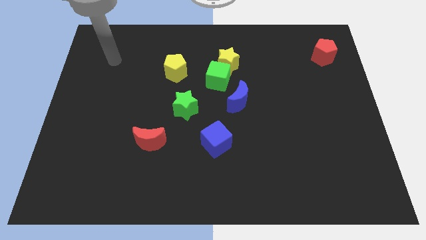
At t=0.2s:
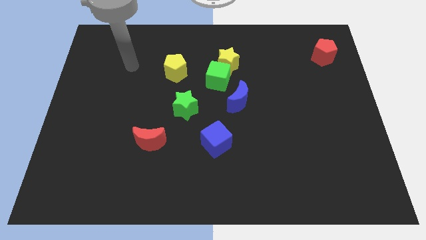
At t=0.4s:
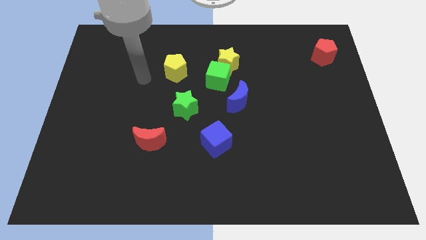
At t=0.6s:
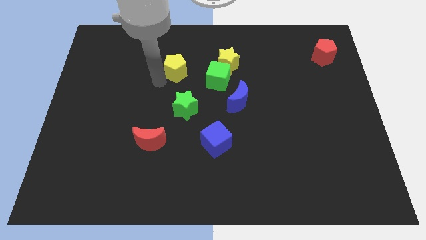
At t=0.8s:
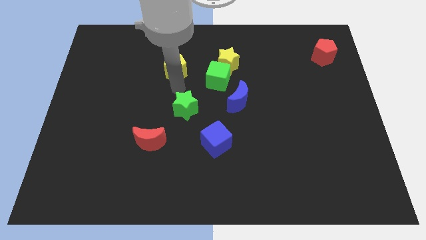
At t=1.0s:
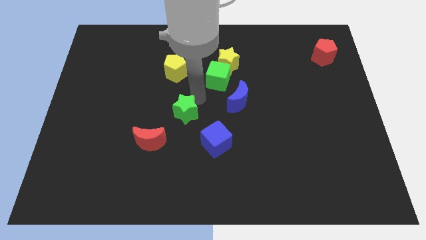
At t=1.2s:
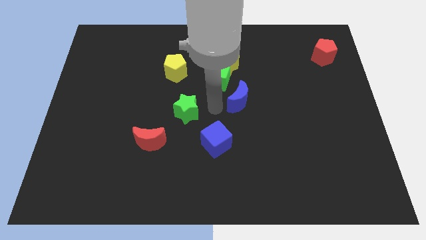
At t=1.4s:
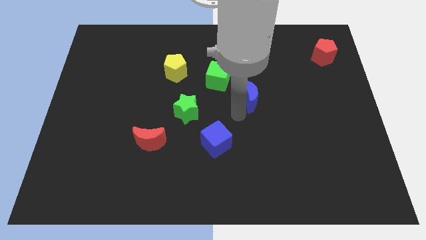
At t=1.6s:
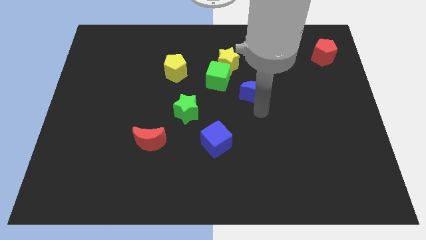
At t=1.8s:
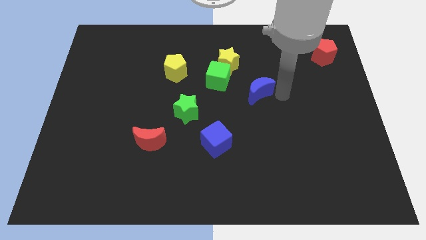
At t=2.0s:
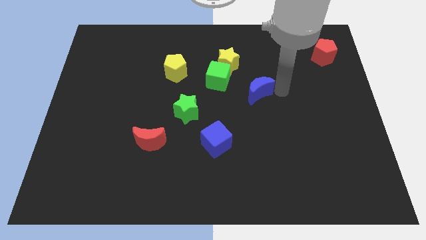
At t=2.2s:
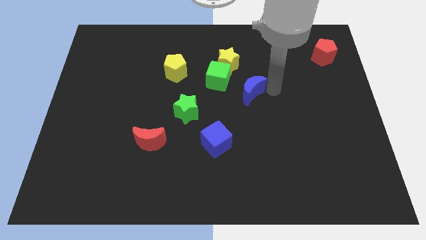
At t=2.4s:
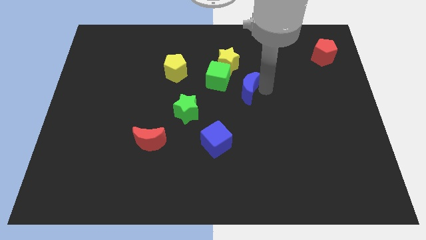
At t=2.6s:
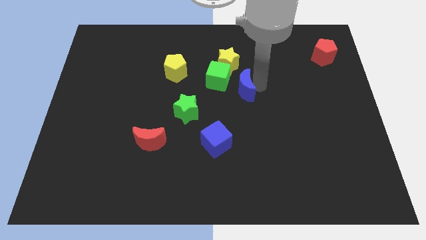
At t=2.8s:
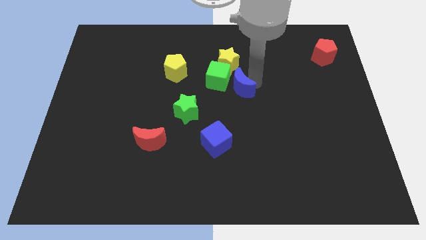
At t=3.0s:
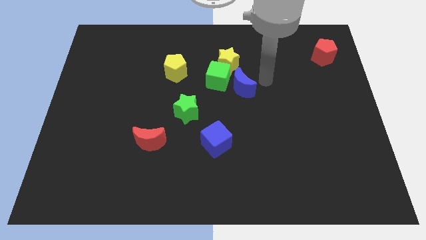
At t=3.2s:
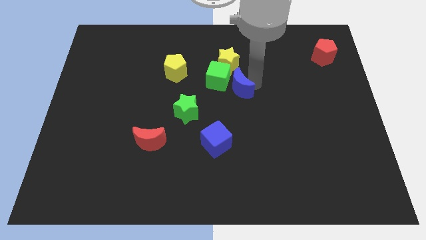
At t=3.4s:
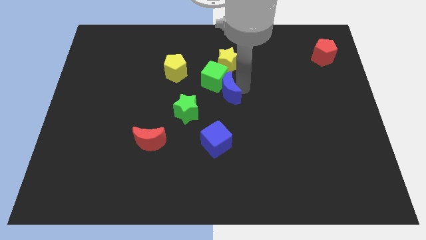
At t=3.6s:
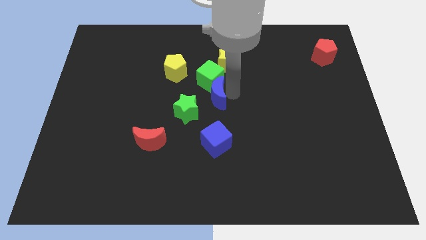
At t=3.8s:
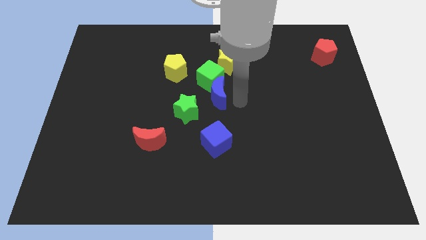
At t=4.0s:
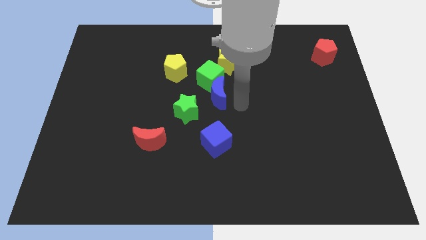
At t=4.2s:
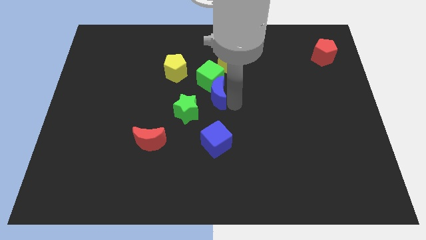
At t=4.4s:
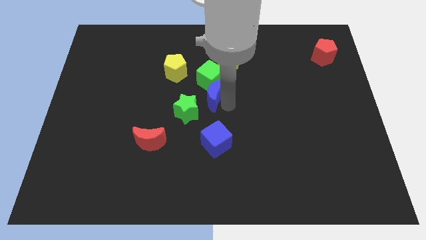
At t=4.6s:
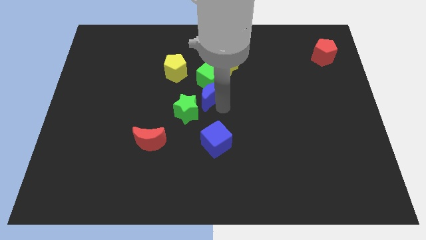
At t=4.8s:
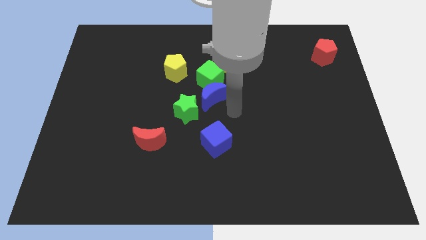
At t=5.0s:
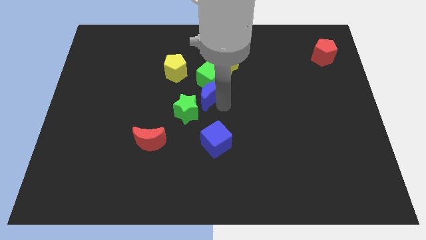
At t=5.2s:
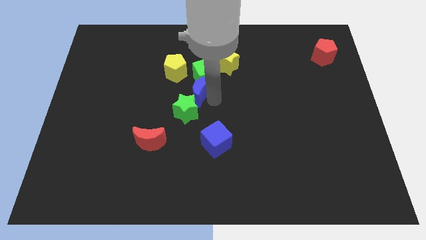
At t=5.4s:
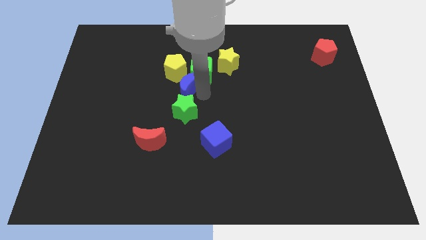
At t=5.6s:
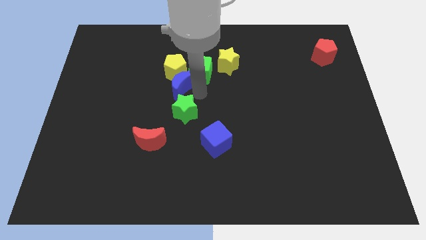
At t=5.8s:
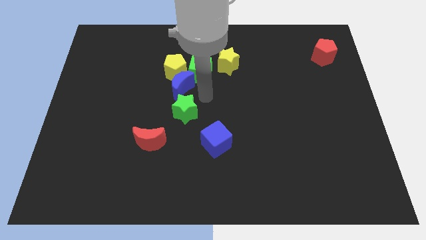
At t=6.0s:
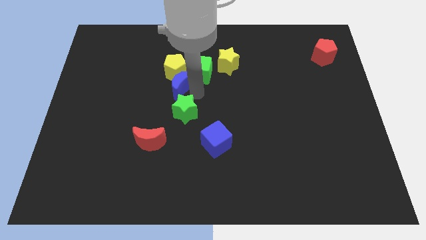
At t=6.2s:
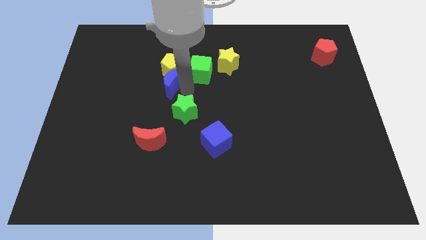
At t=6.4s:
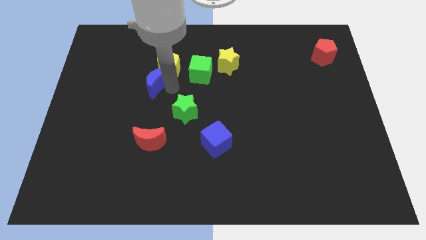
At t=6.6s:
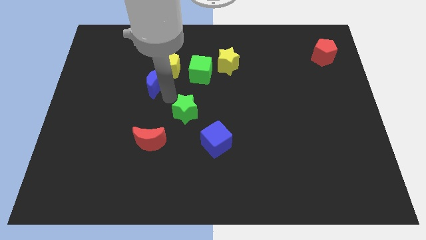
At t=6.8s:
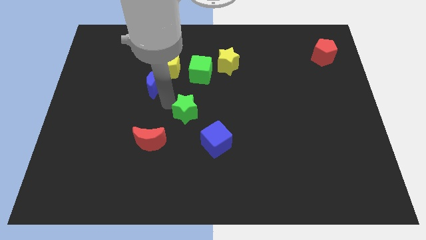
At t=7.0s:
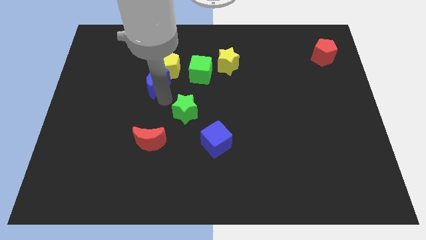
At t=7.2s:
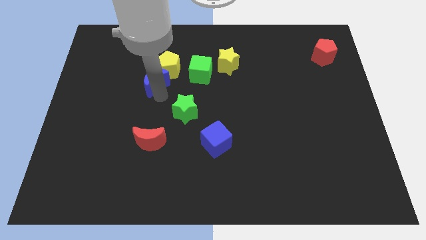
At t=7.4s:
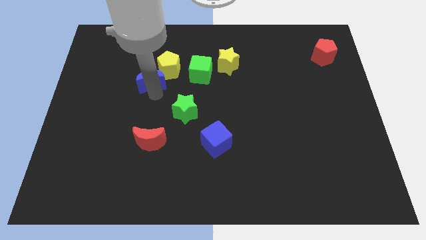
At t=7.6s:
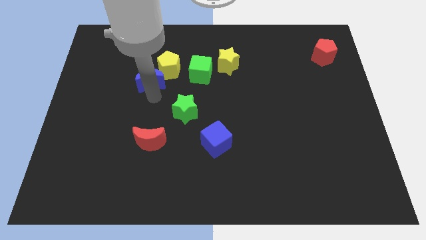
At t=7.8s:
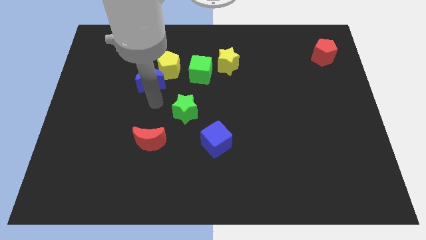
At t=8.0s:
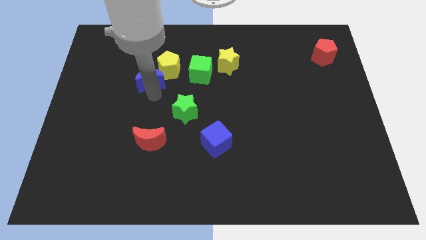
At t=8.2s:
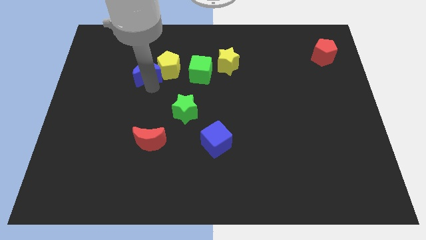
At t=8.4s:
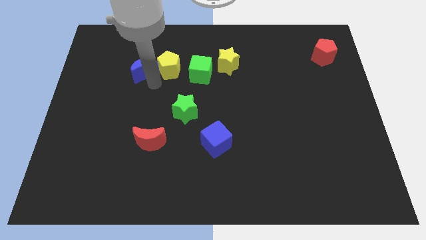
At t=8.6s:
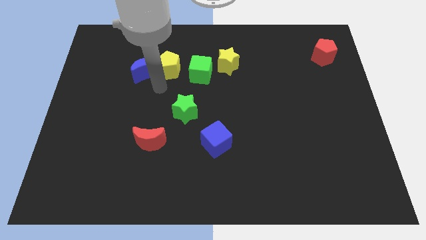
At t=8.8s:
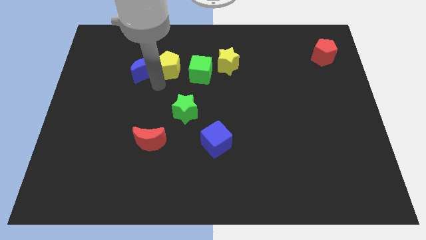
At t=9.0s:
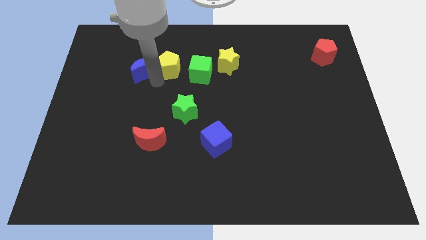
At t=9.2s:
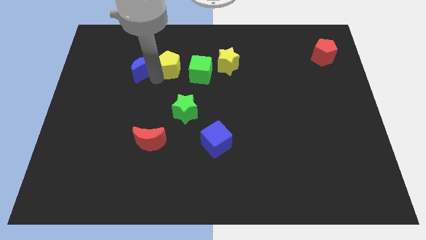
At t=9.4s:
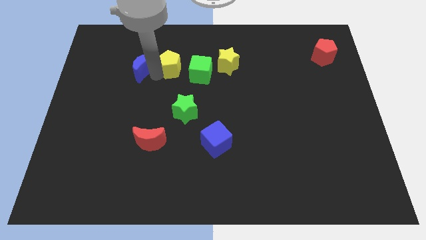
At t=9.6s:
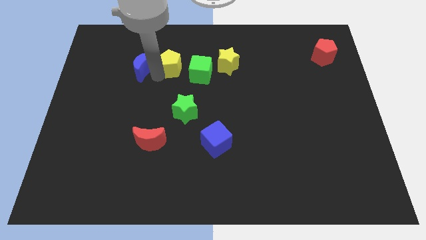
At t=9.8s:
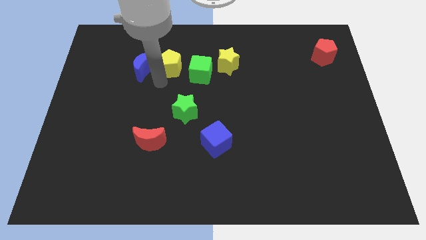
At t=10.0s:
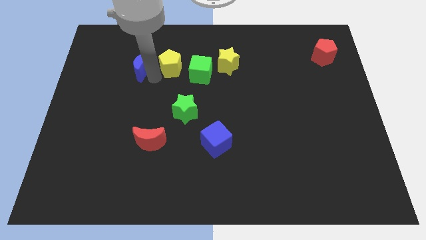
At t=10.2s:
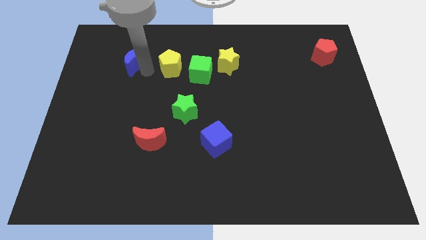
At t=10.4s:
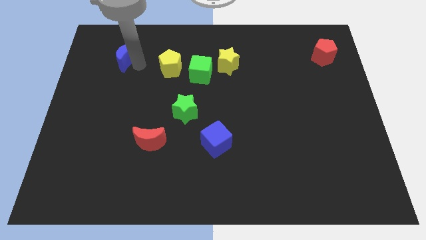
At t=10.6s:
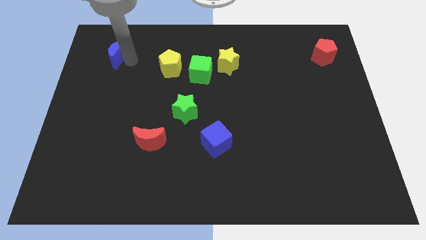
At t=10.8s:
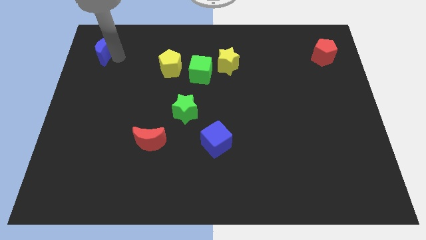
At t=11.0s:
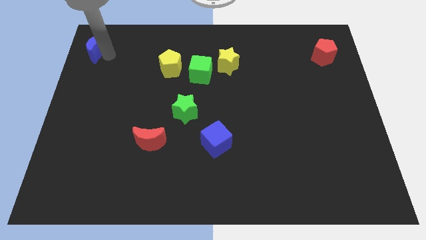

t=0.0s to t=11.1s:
push the blue moon to the top left
